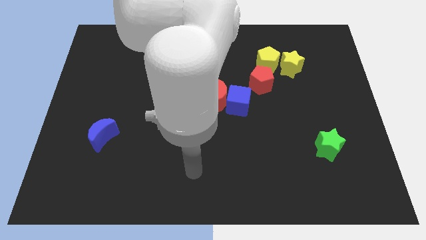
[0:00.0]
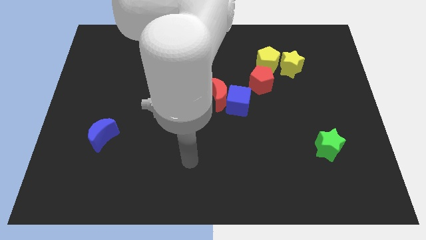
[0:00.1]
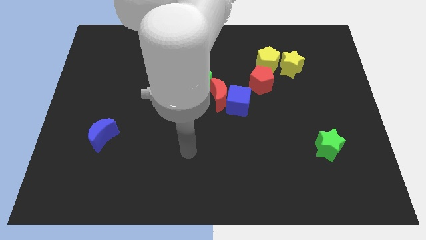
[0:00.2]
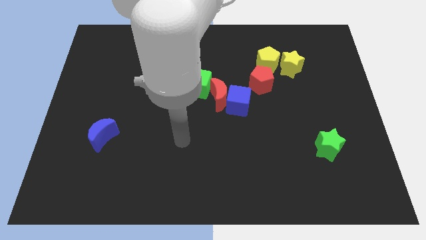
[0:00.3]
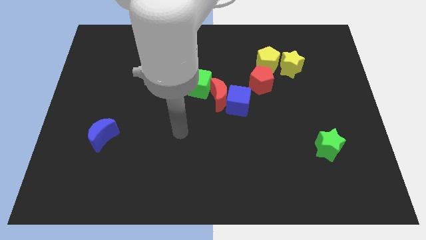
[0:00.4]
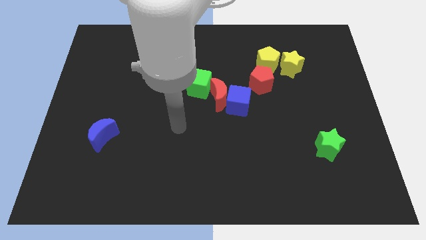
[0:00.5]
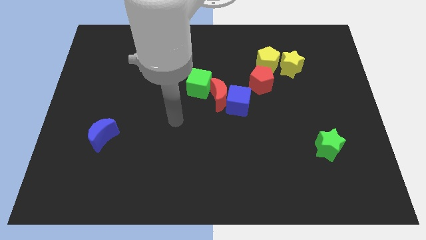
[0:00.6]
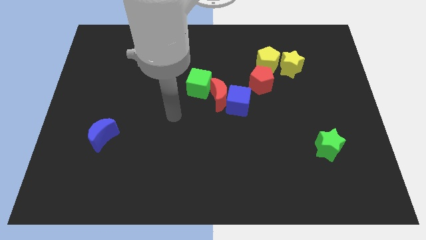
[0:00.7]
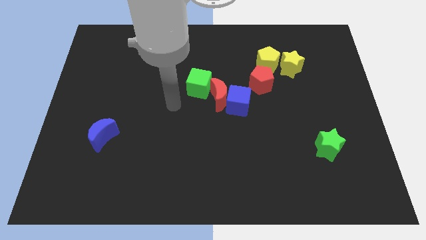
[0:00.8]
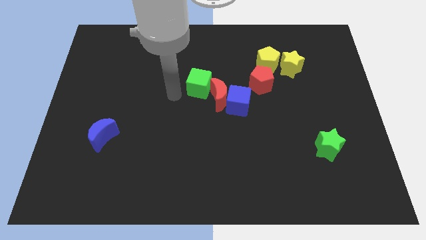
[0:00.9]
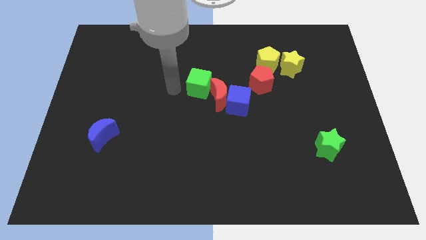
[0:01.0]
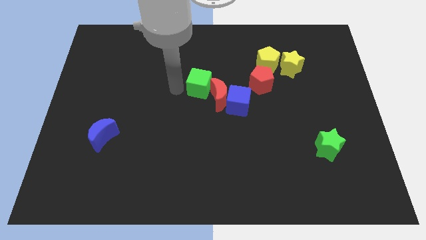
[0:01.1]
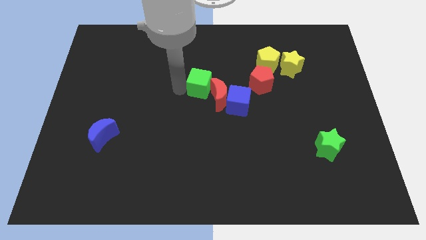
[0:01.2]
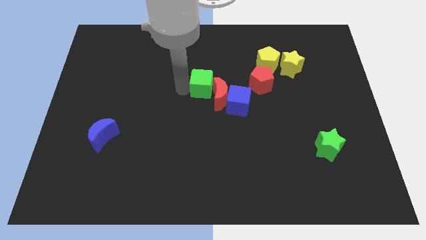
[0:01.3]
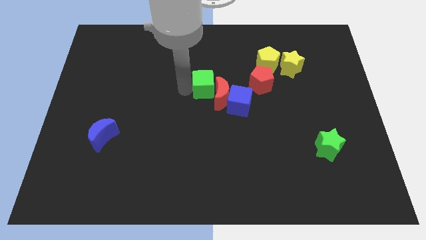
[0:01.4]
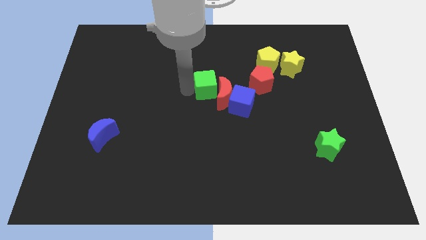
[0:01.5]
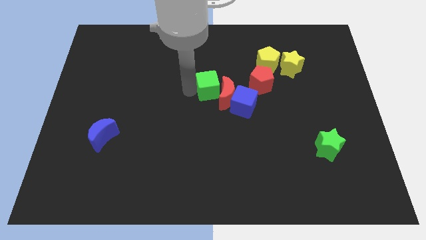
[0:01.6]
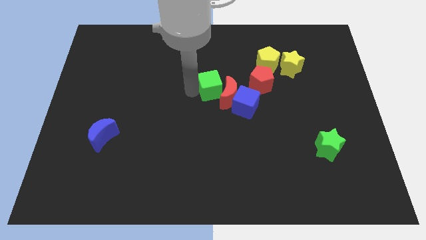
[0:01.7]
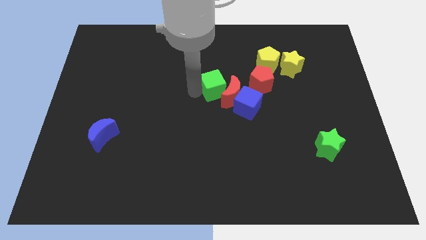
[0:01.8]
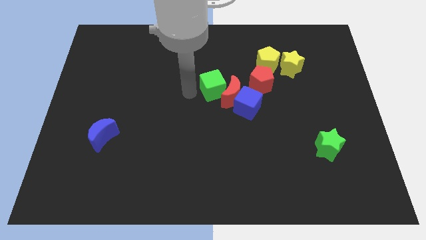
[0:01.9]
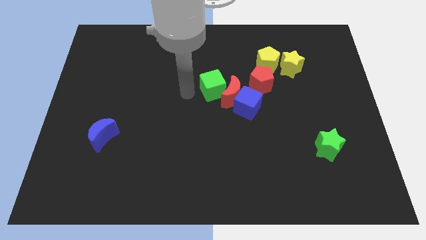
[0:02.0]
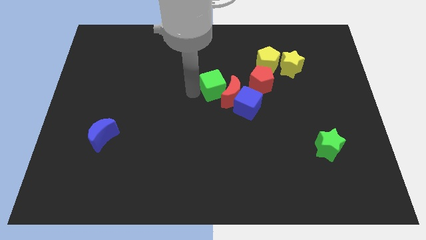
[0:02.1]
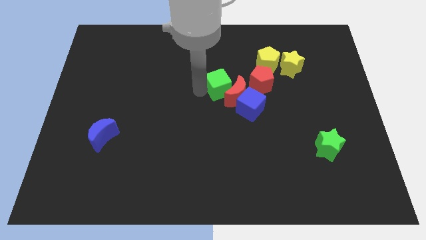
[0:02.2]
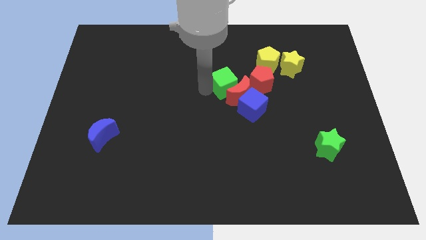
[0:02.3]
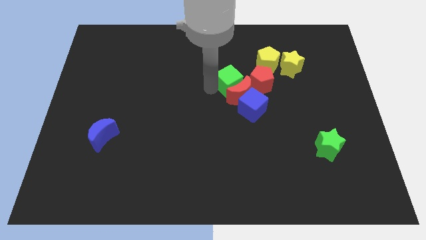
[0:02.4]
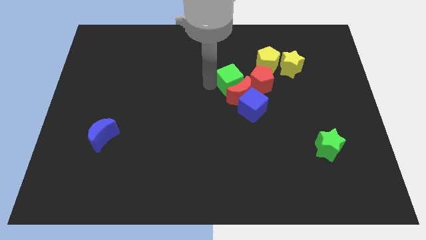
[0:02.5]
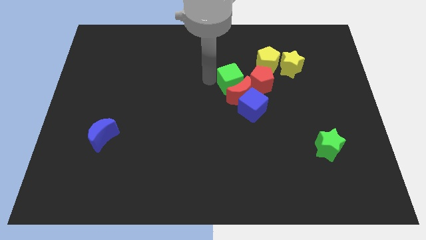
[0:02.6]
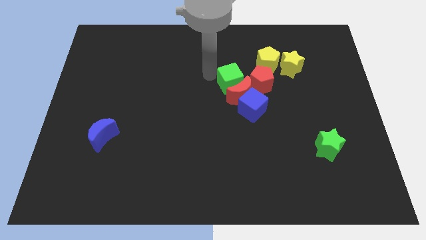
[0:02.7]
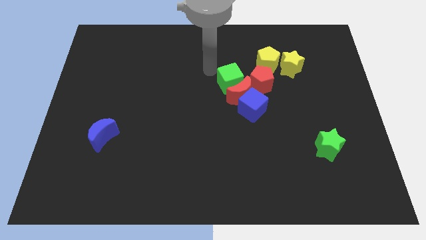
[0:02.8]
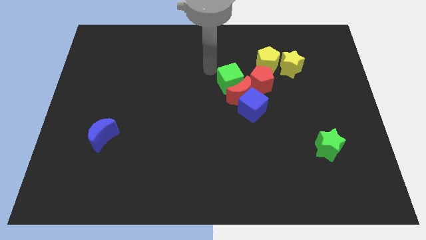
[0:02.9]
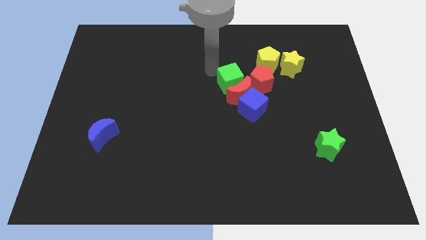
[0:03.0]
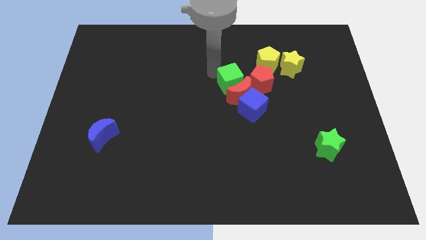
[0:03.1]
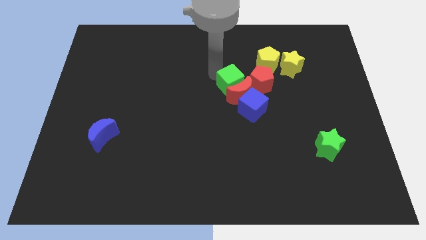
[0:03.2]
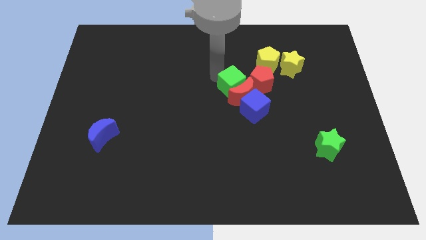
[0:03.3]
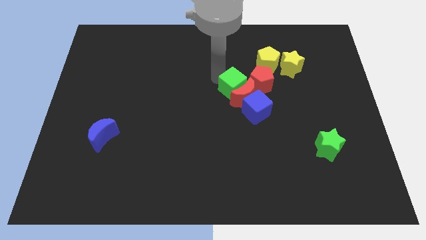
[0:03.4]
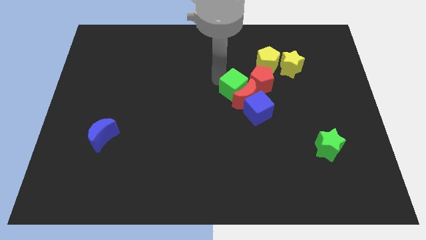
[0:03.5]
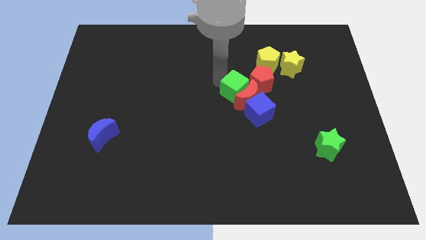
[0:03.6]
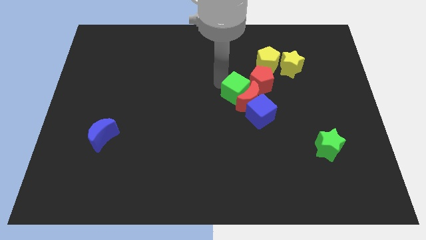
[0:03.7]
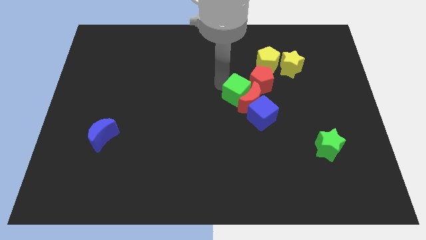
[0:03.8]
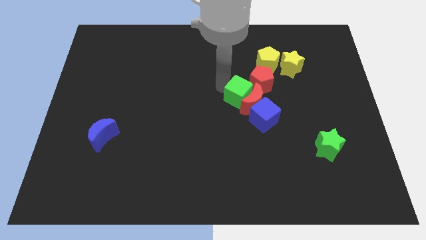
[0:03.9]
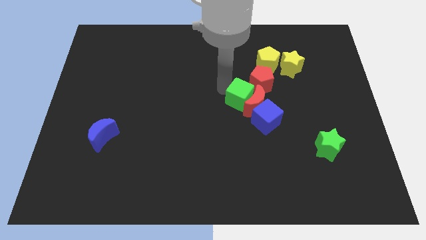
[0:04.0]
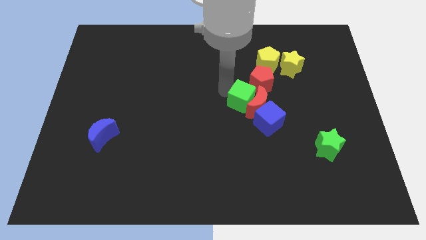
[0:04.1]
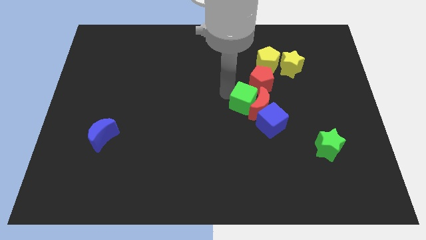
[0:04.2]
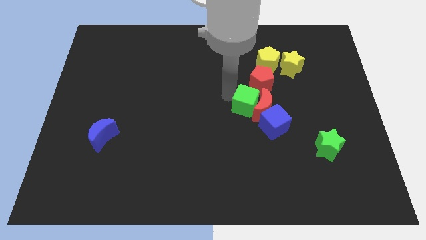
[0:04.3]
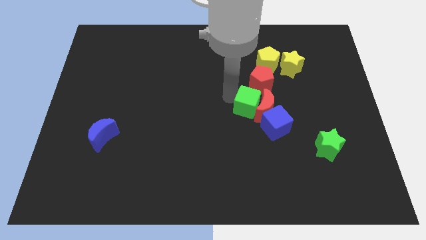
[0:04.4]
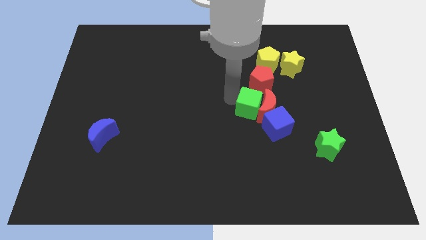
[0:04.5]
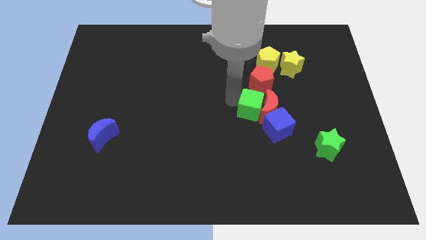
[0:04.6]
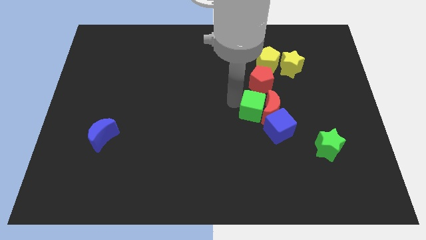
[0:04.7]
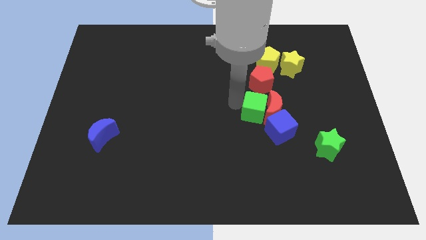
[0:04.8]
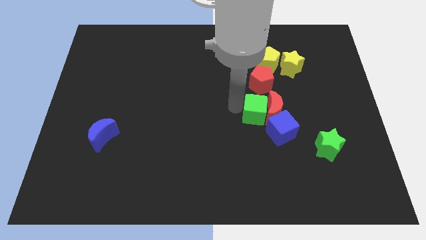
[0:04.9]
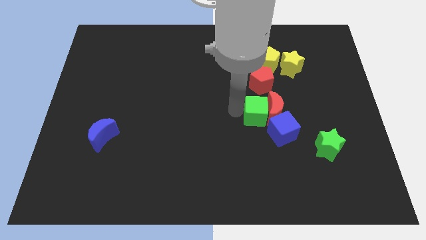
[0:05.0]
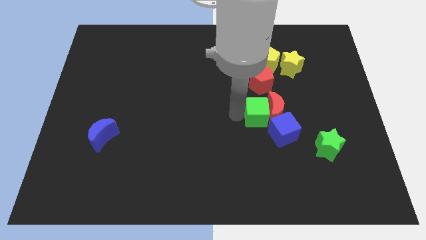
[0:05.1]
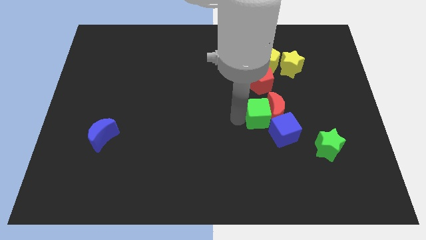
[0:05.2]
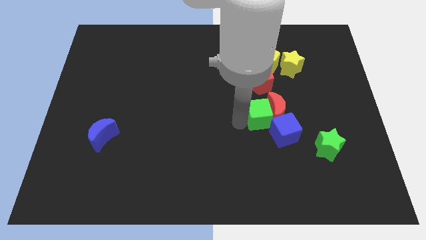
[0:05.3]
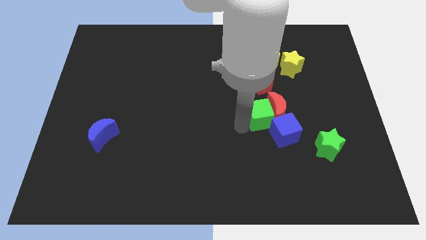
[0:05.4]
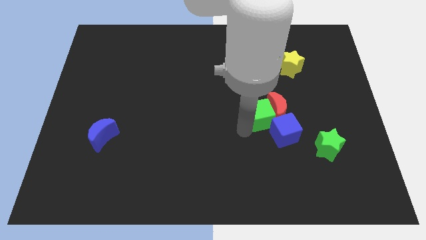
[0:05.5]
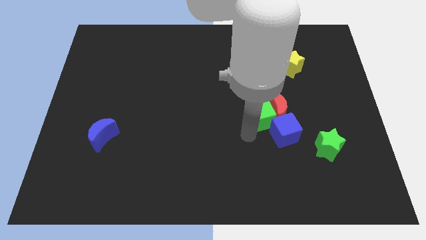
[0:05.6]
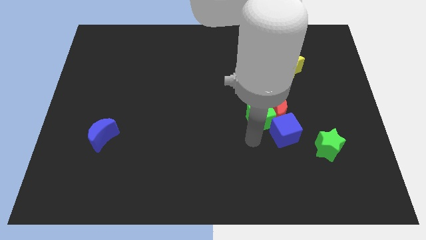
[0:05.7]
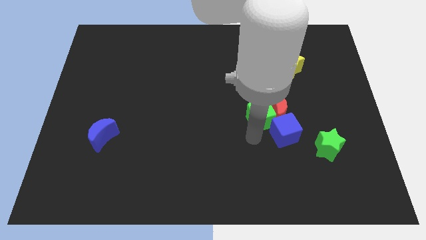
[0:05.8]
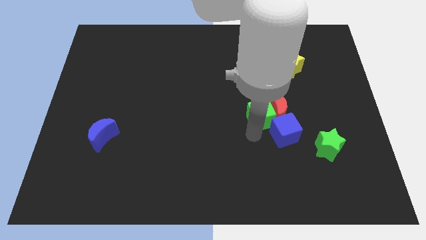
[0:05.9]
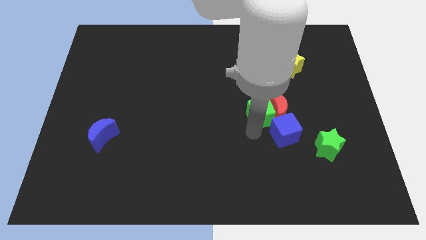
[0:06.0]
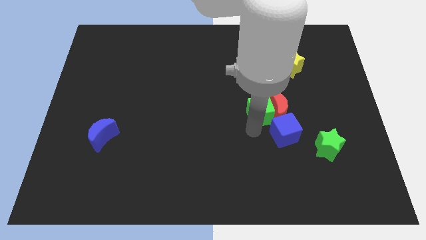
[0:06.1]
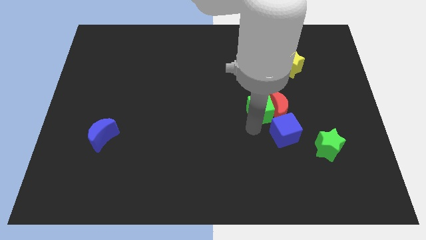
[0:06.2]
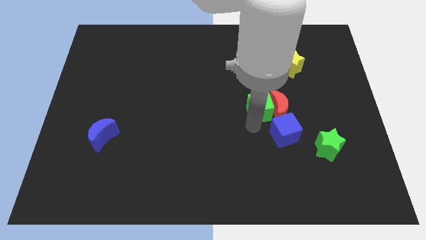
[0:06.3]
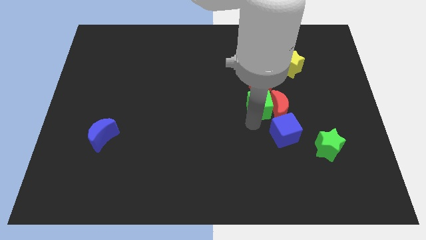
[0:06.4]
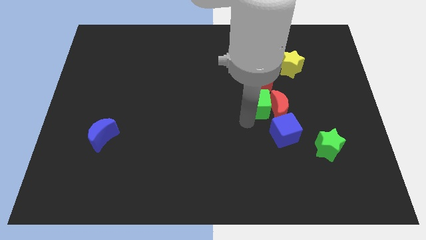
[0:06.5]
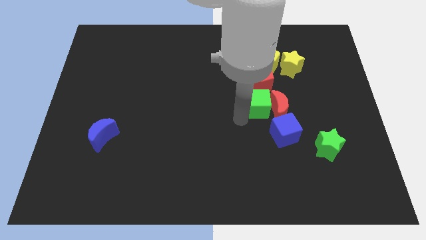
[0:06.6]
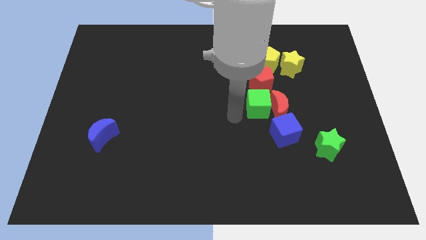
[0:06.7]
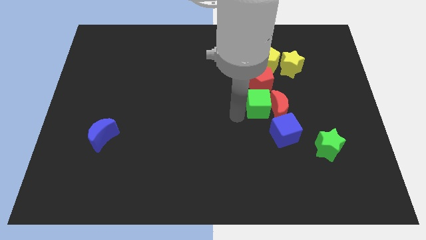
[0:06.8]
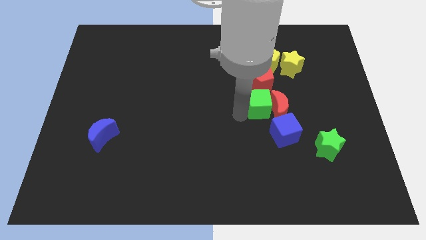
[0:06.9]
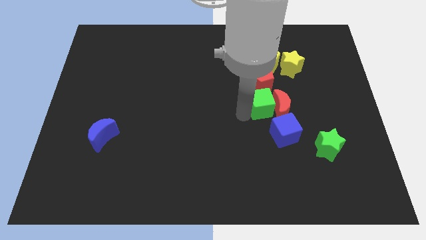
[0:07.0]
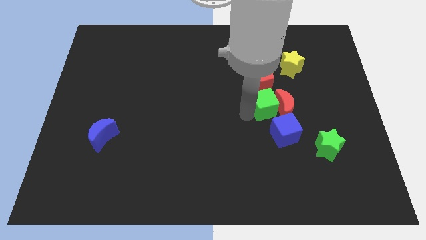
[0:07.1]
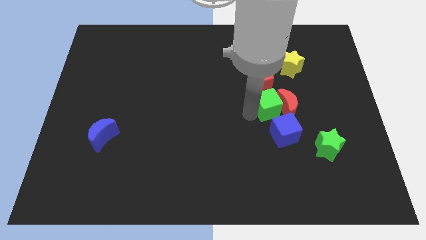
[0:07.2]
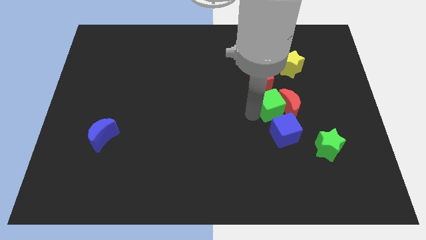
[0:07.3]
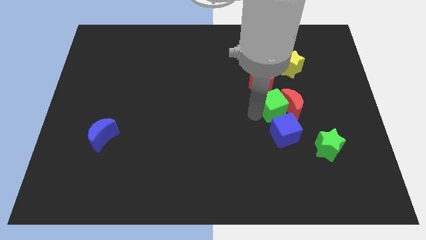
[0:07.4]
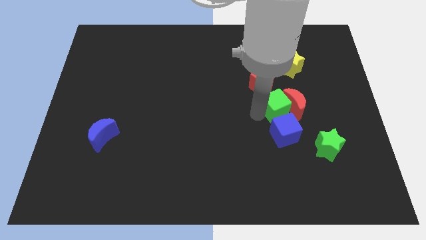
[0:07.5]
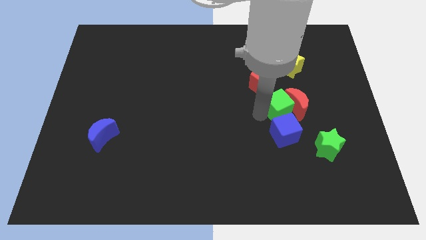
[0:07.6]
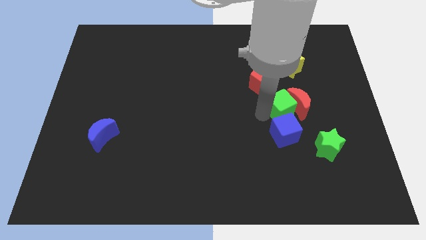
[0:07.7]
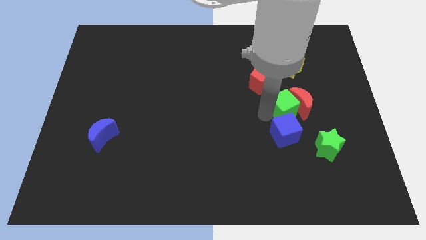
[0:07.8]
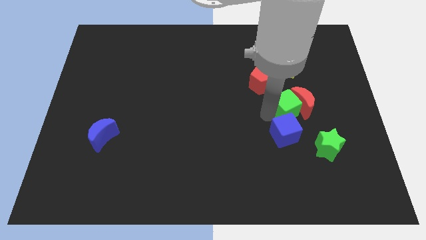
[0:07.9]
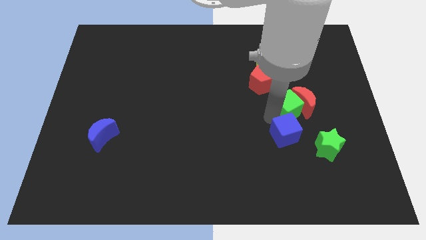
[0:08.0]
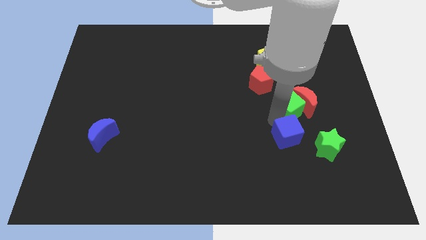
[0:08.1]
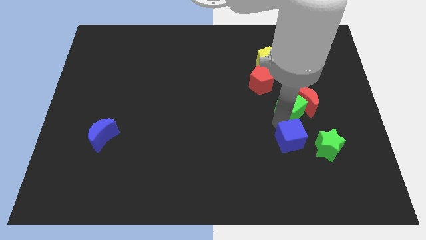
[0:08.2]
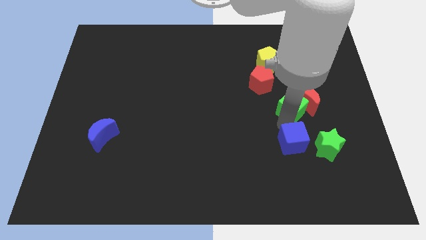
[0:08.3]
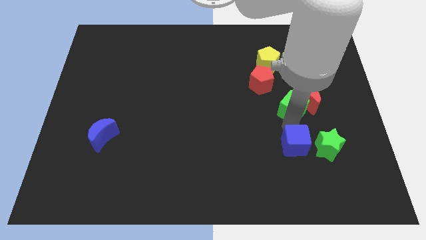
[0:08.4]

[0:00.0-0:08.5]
slide the green cube right
